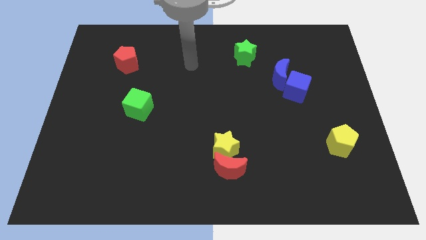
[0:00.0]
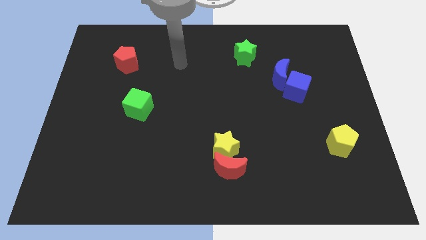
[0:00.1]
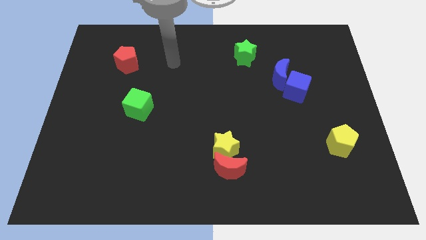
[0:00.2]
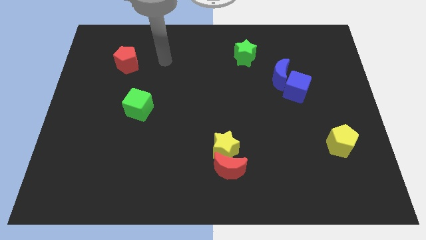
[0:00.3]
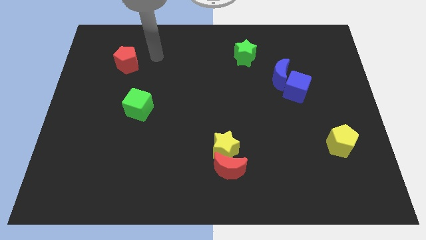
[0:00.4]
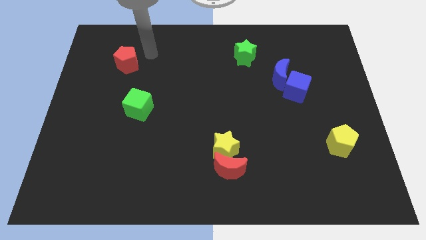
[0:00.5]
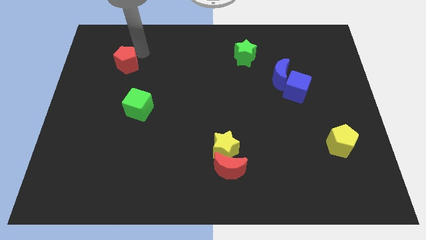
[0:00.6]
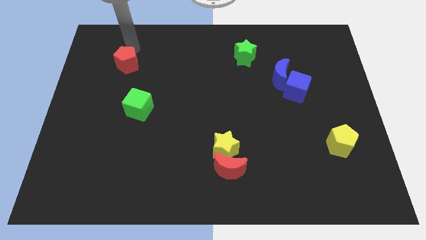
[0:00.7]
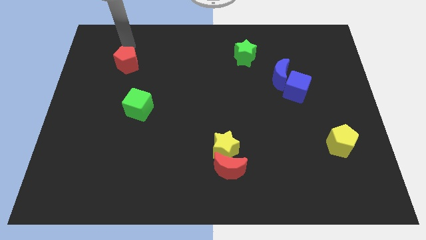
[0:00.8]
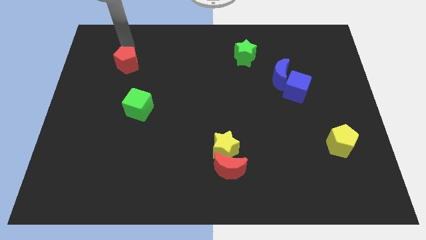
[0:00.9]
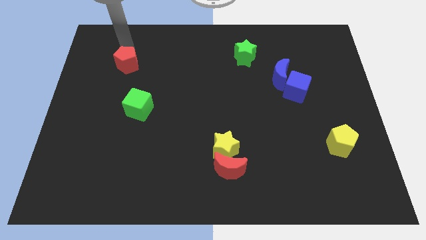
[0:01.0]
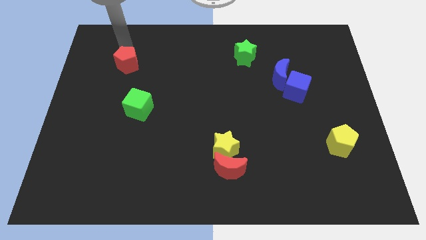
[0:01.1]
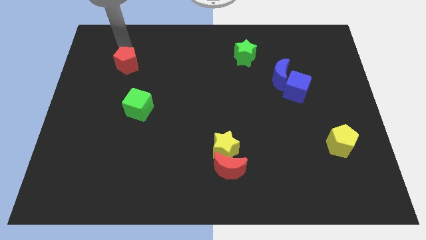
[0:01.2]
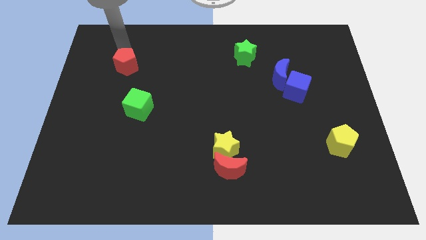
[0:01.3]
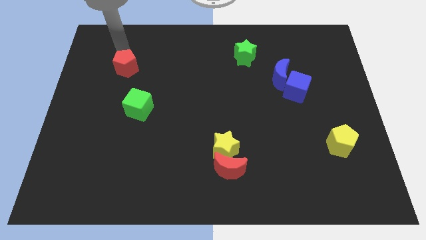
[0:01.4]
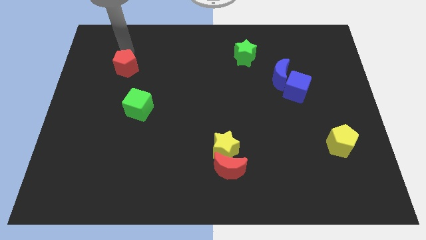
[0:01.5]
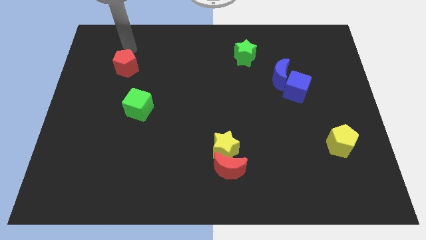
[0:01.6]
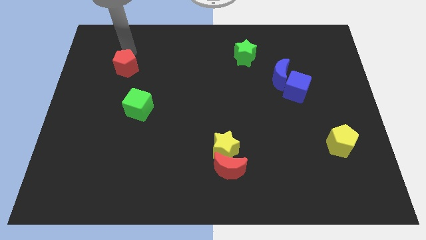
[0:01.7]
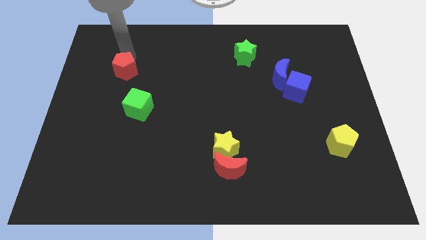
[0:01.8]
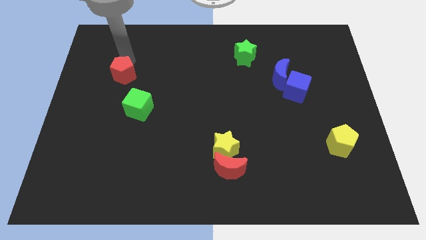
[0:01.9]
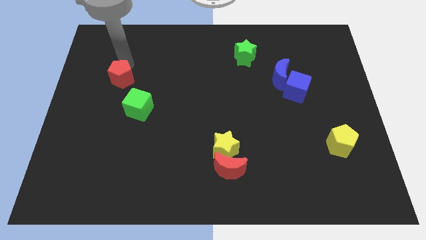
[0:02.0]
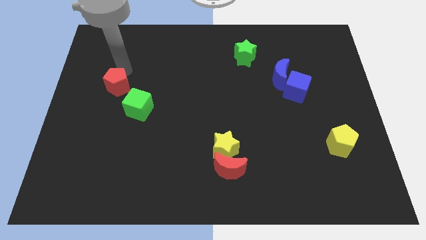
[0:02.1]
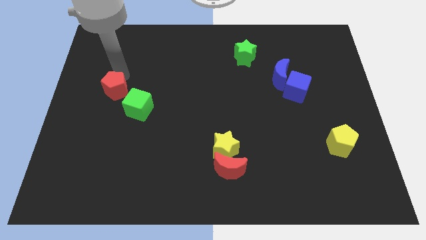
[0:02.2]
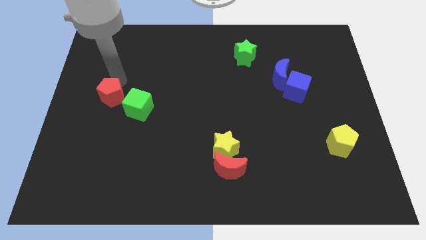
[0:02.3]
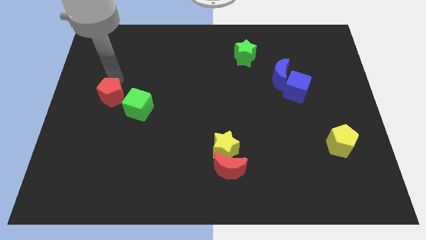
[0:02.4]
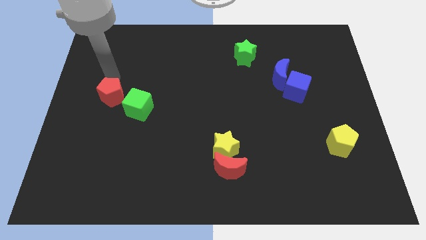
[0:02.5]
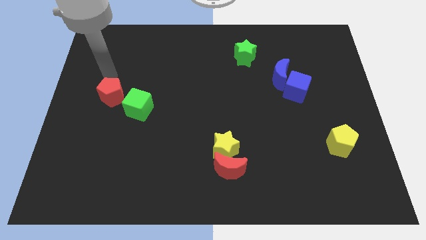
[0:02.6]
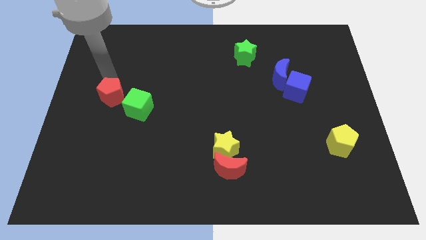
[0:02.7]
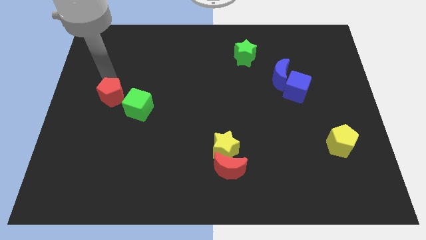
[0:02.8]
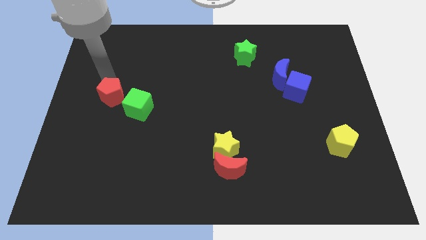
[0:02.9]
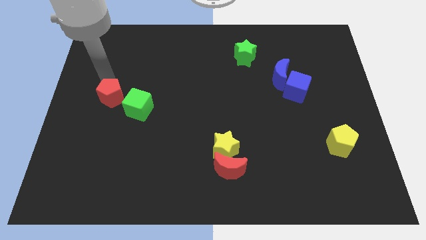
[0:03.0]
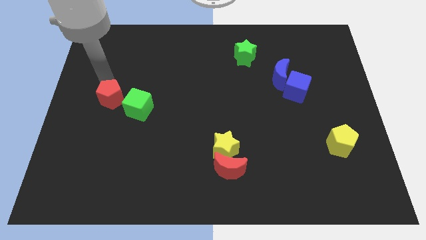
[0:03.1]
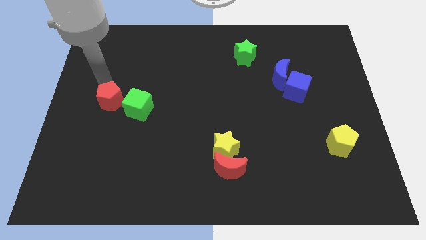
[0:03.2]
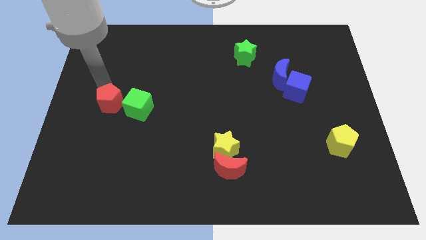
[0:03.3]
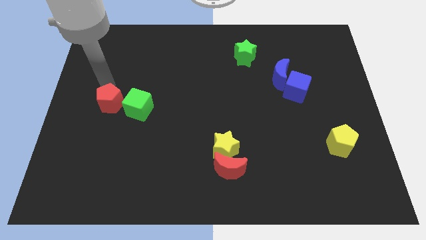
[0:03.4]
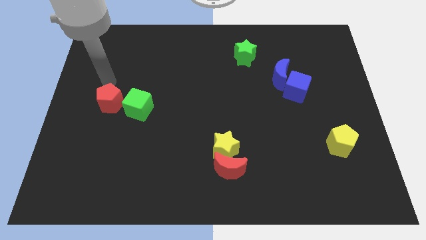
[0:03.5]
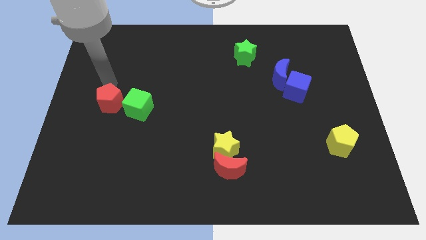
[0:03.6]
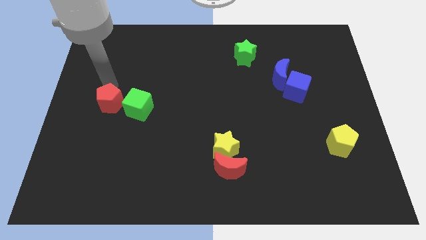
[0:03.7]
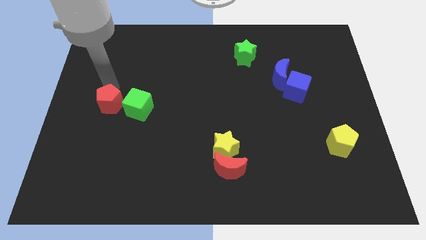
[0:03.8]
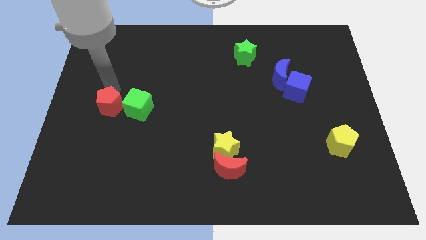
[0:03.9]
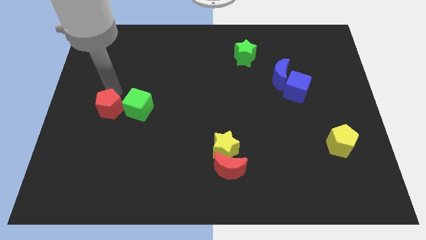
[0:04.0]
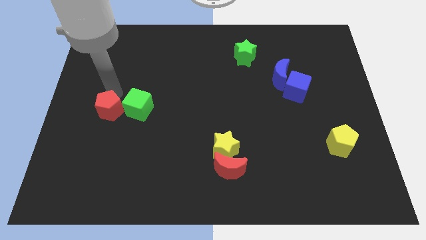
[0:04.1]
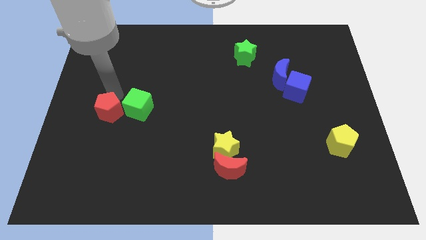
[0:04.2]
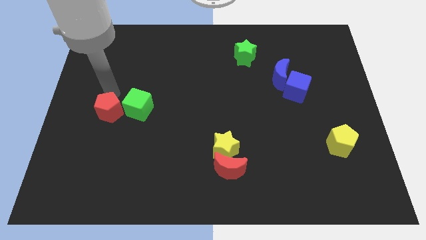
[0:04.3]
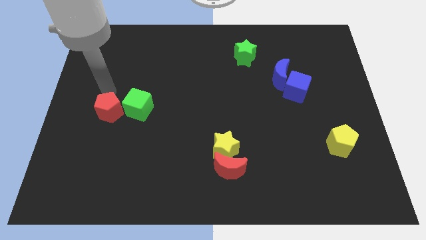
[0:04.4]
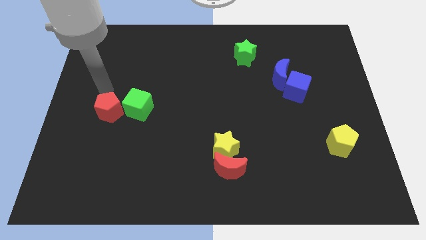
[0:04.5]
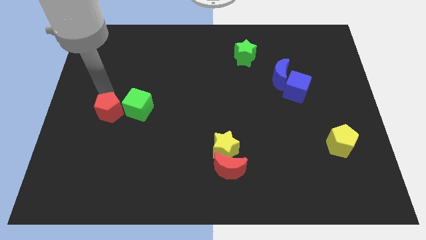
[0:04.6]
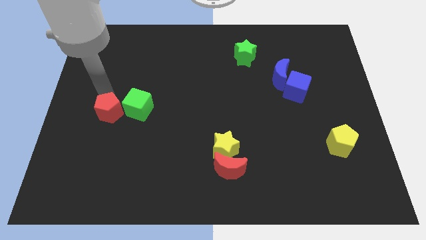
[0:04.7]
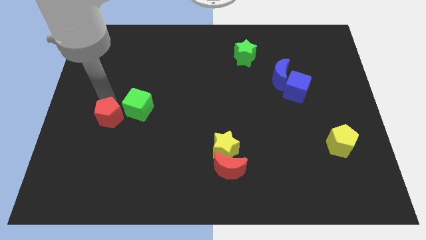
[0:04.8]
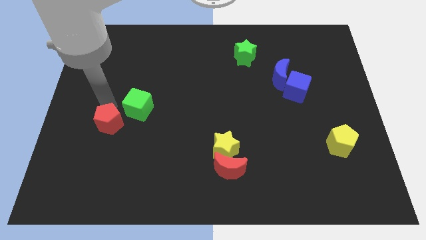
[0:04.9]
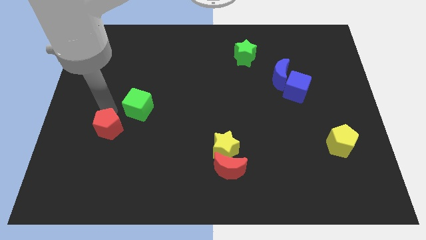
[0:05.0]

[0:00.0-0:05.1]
push the red pentagon downwards

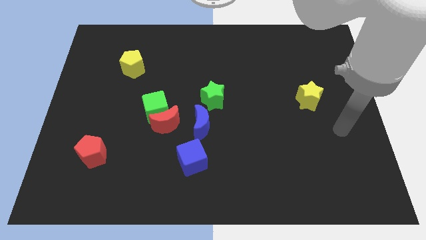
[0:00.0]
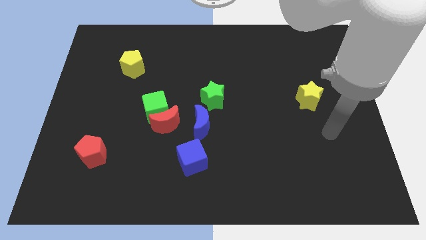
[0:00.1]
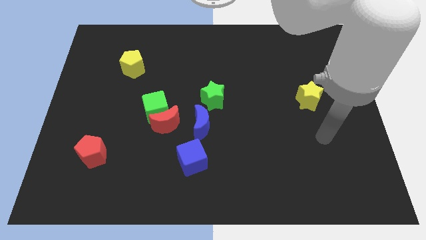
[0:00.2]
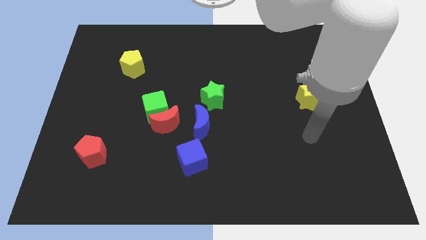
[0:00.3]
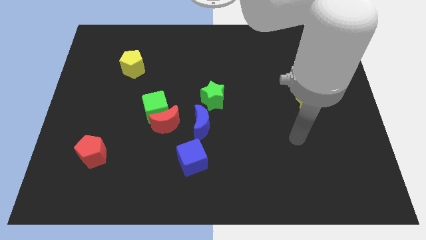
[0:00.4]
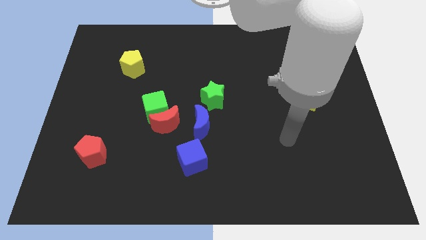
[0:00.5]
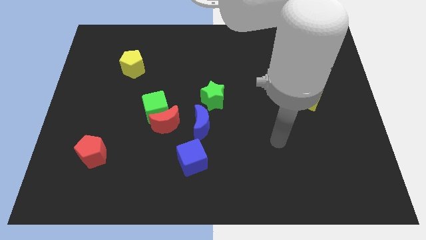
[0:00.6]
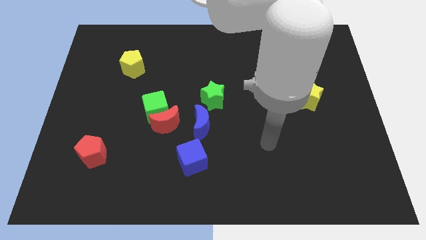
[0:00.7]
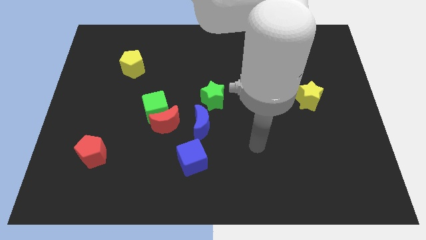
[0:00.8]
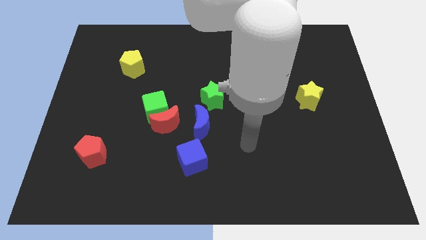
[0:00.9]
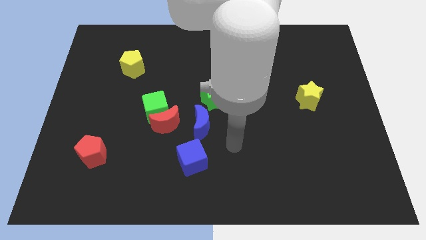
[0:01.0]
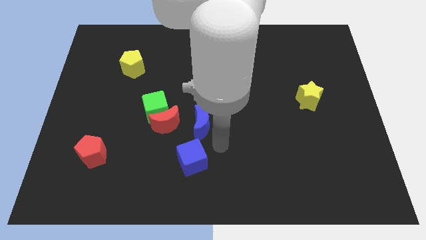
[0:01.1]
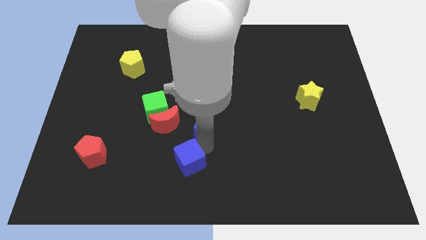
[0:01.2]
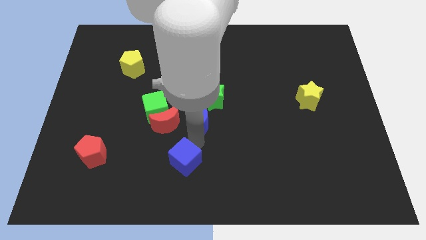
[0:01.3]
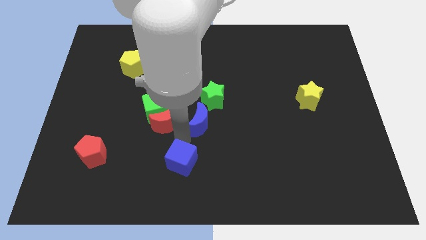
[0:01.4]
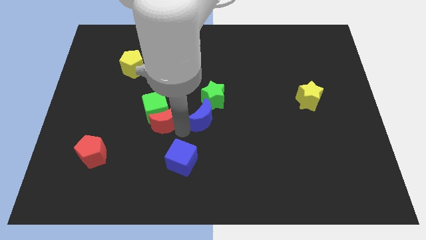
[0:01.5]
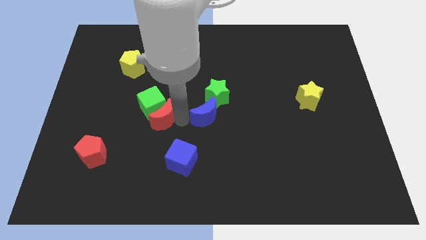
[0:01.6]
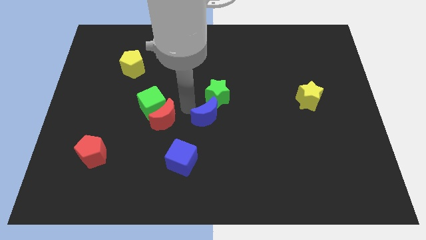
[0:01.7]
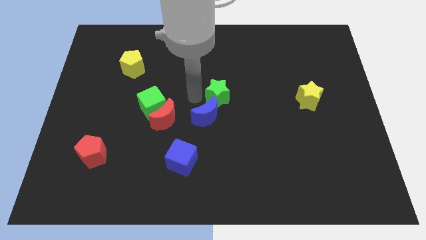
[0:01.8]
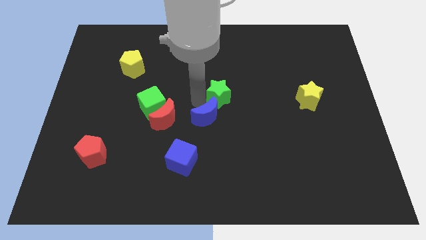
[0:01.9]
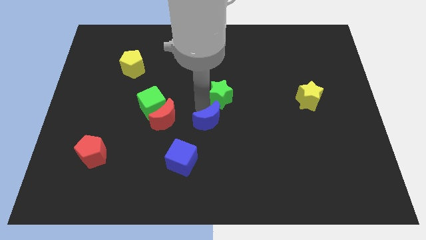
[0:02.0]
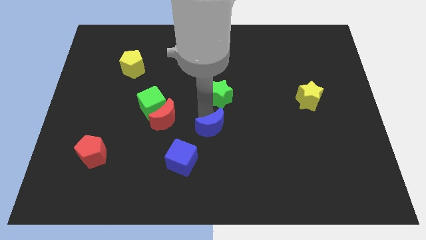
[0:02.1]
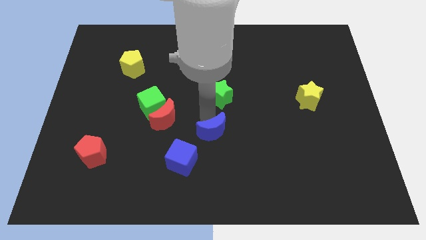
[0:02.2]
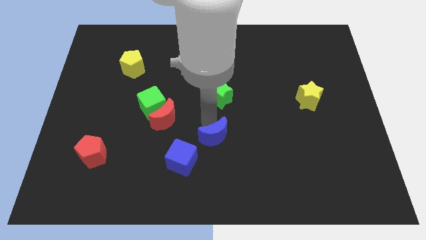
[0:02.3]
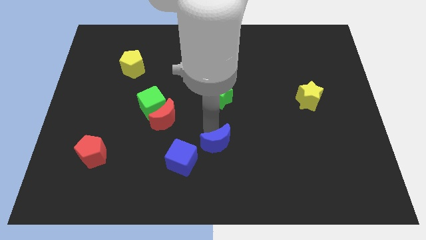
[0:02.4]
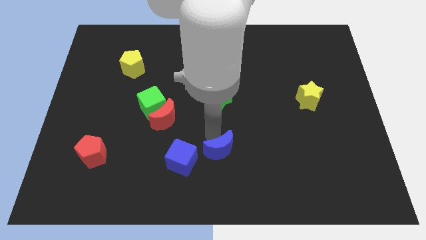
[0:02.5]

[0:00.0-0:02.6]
slide the blue moon downwards and then to the right slightly

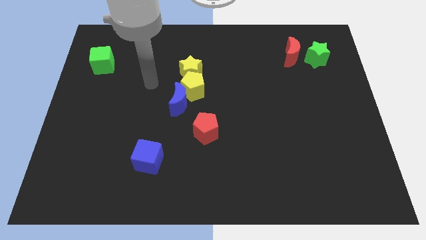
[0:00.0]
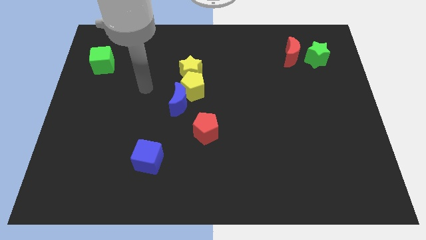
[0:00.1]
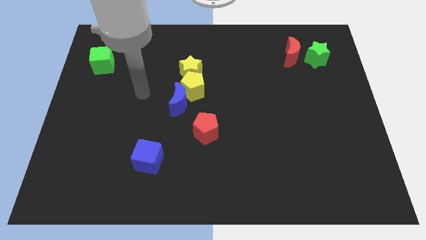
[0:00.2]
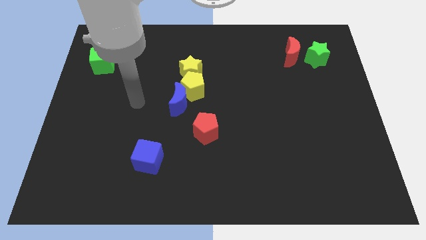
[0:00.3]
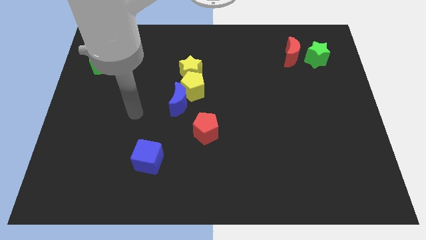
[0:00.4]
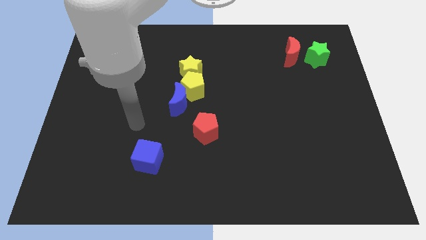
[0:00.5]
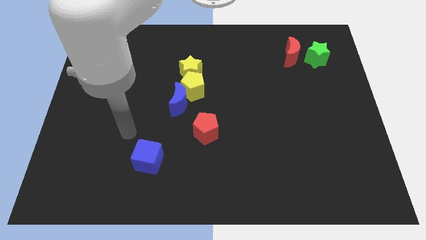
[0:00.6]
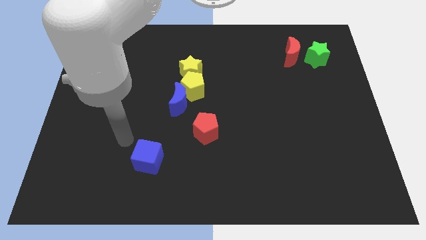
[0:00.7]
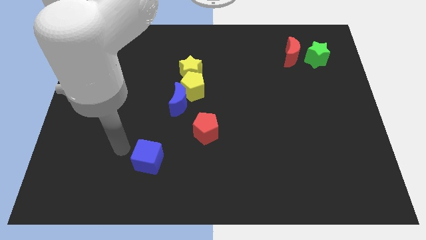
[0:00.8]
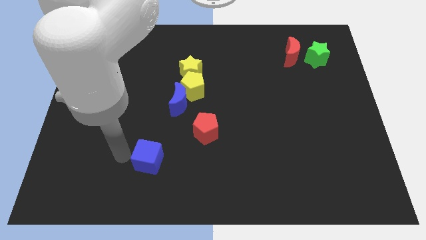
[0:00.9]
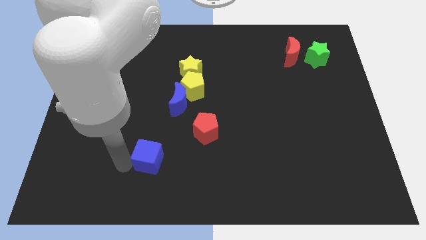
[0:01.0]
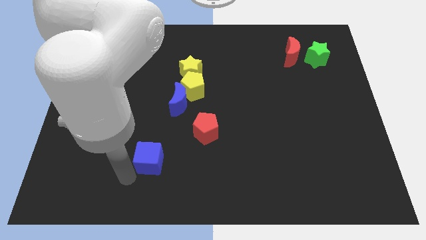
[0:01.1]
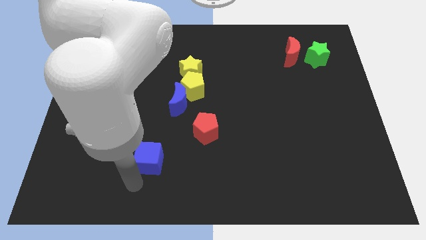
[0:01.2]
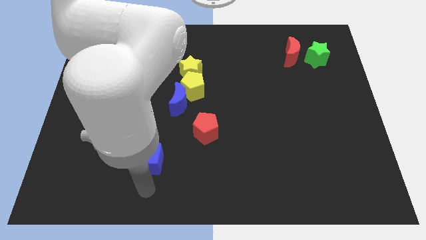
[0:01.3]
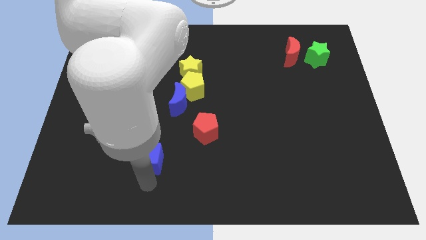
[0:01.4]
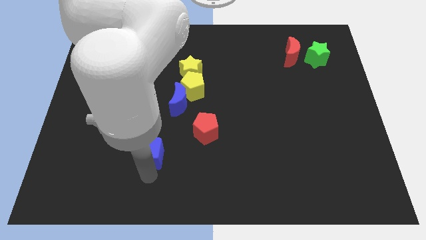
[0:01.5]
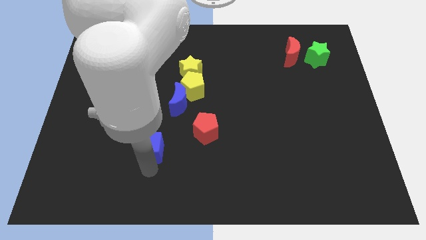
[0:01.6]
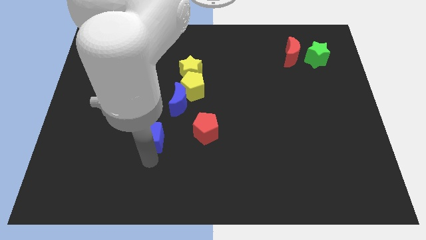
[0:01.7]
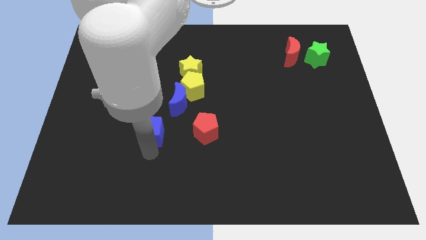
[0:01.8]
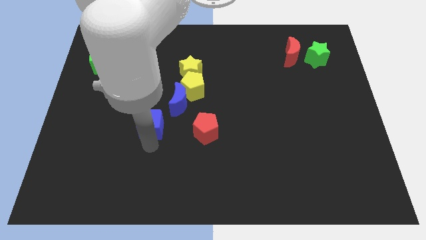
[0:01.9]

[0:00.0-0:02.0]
slide the blue cube a bit upwards
